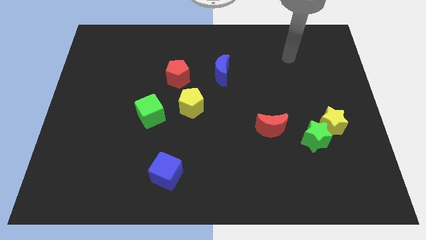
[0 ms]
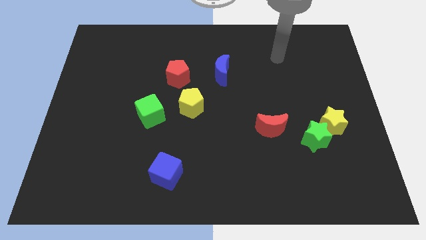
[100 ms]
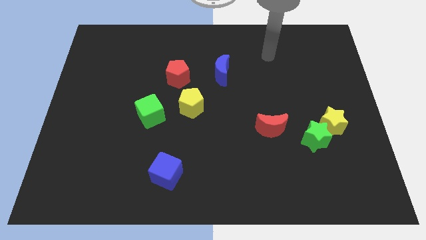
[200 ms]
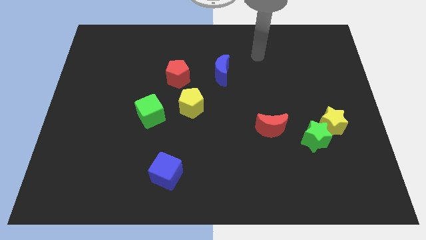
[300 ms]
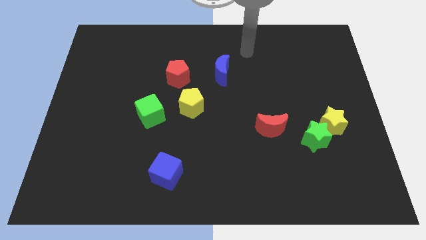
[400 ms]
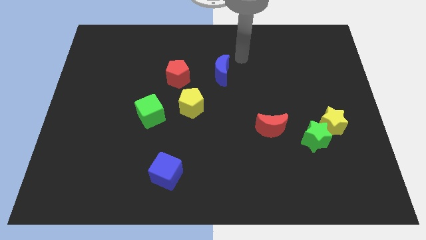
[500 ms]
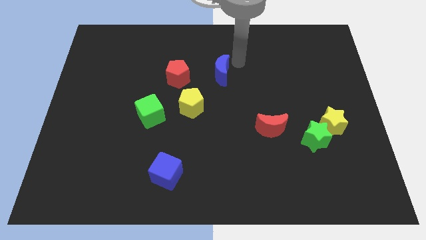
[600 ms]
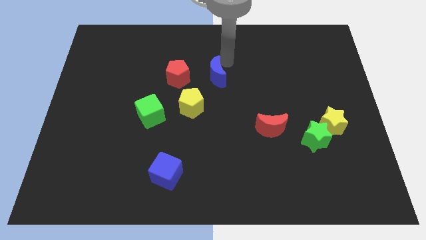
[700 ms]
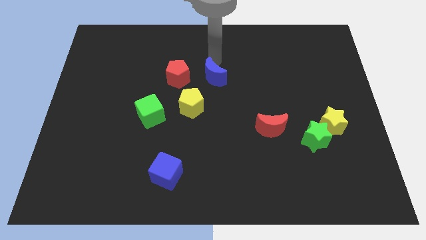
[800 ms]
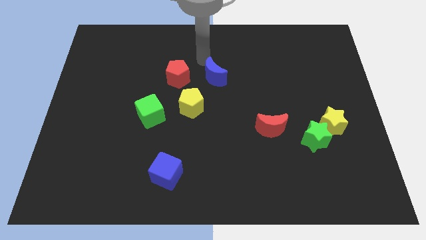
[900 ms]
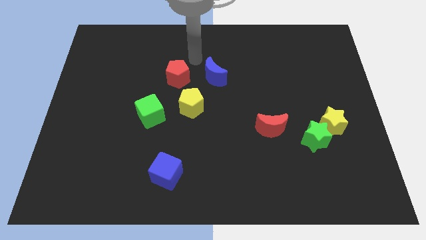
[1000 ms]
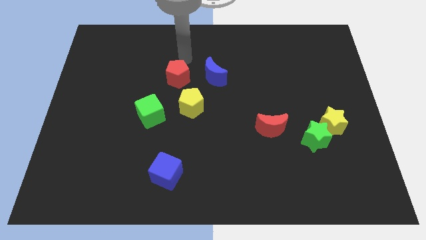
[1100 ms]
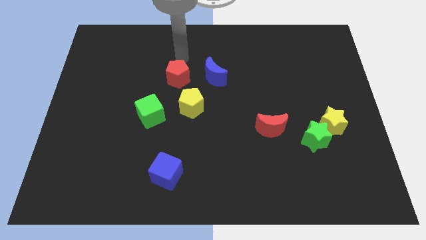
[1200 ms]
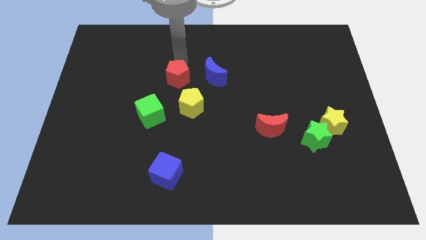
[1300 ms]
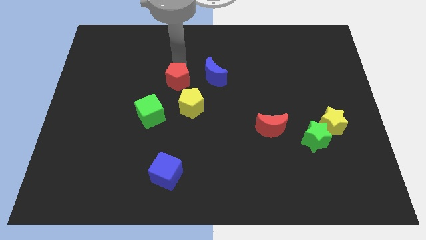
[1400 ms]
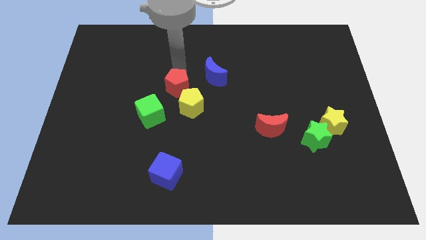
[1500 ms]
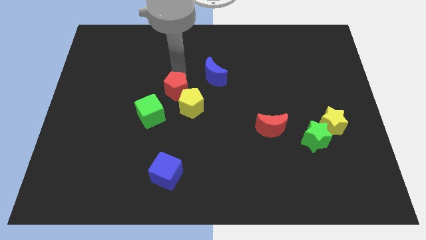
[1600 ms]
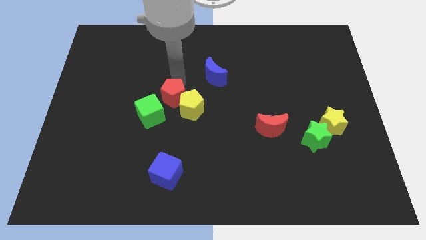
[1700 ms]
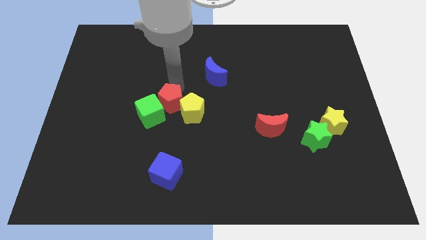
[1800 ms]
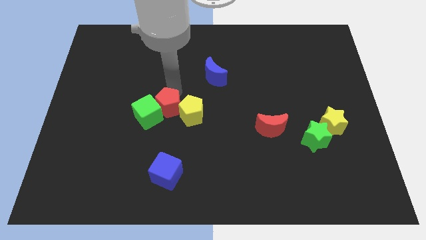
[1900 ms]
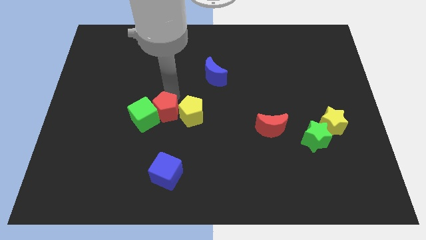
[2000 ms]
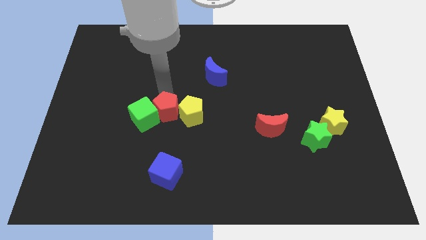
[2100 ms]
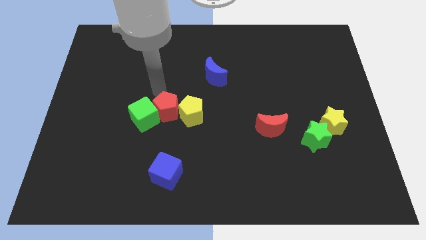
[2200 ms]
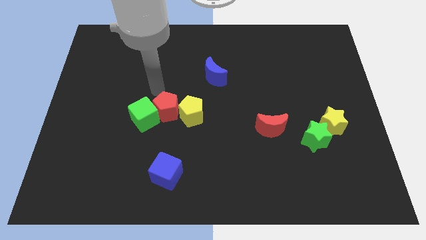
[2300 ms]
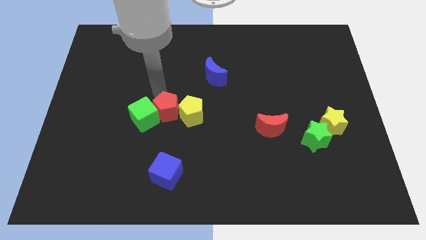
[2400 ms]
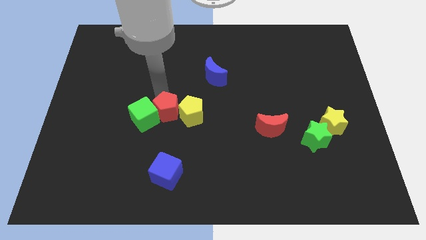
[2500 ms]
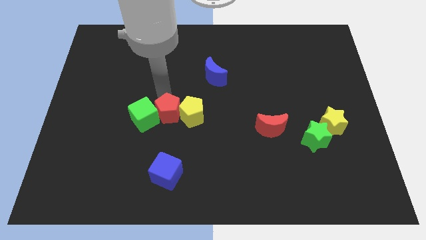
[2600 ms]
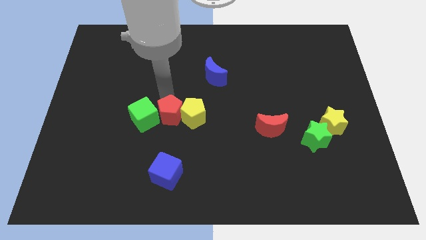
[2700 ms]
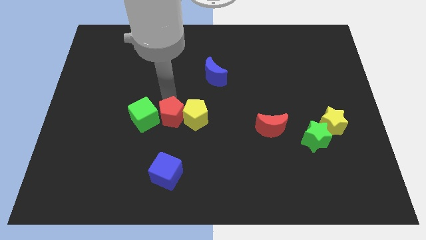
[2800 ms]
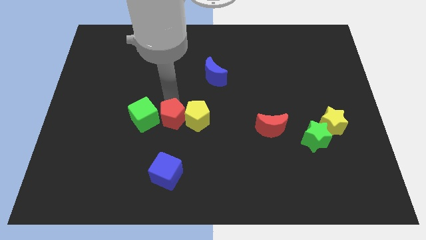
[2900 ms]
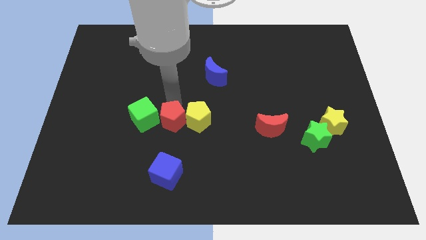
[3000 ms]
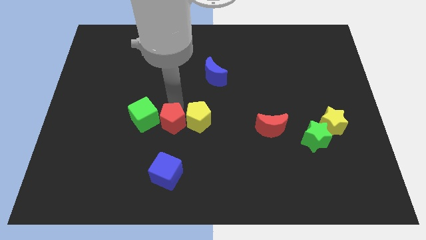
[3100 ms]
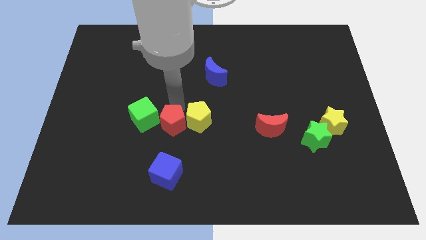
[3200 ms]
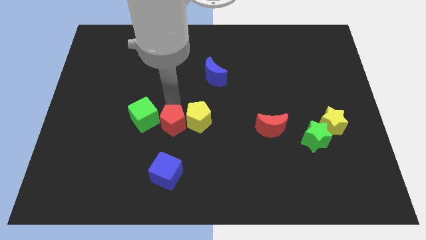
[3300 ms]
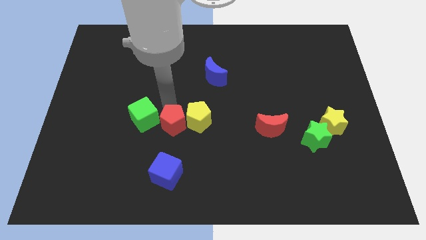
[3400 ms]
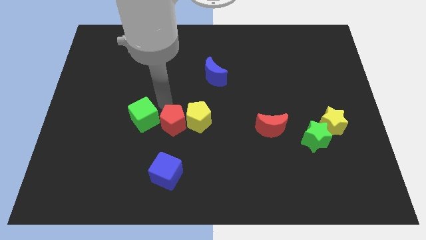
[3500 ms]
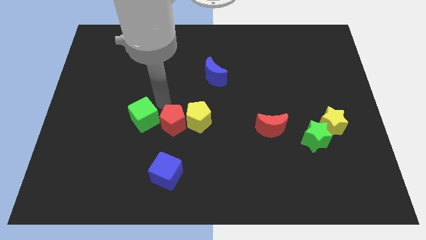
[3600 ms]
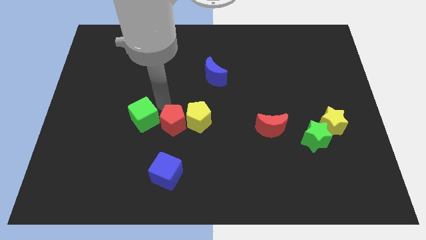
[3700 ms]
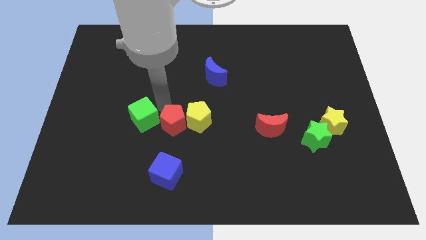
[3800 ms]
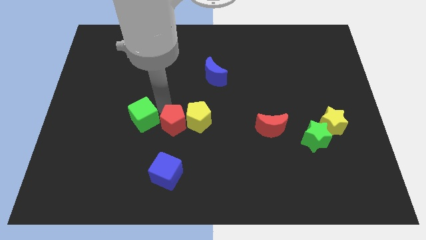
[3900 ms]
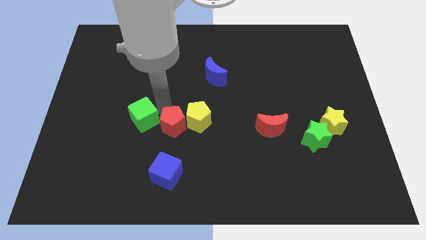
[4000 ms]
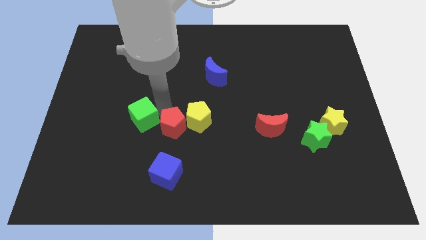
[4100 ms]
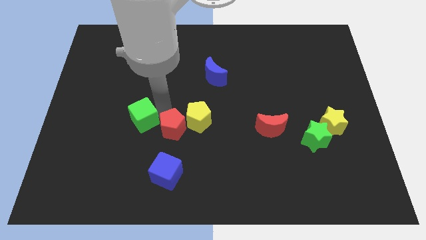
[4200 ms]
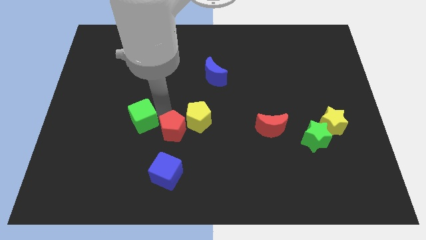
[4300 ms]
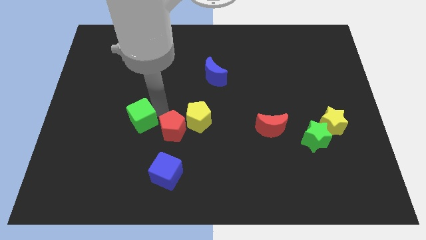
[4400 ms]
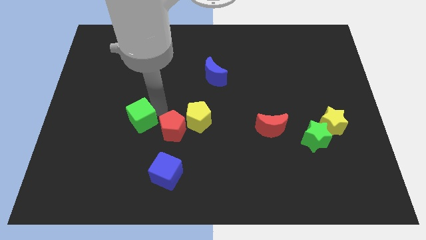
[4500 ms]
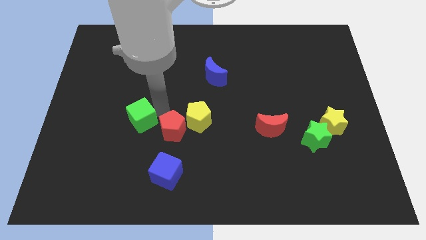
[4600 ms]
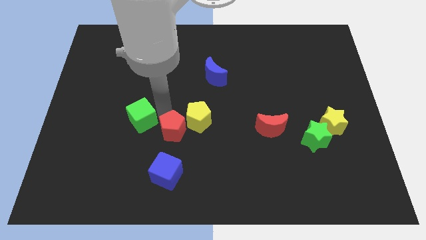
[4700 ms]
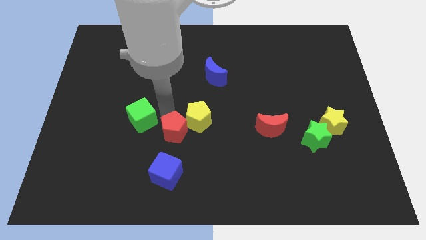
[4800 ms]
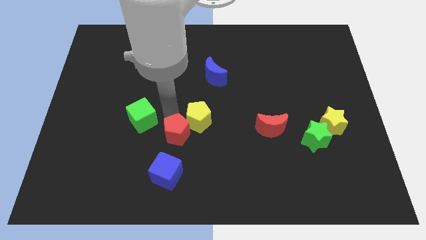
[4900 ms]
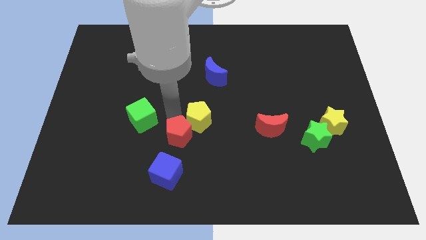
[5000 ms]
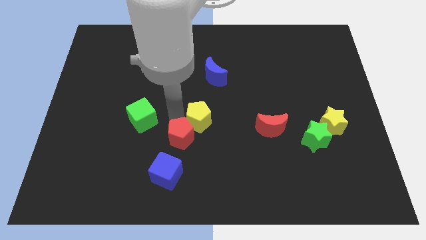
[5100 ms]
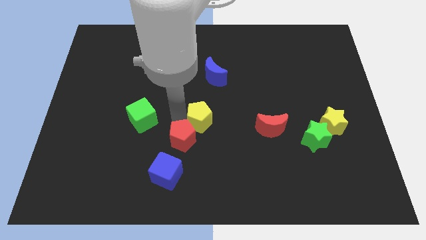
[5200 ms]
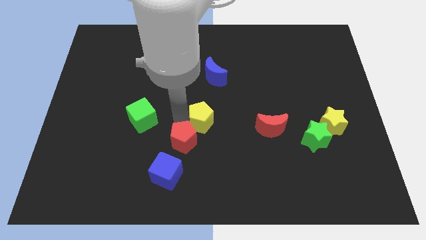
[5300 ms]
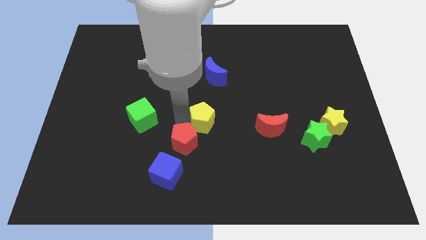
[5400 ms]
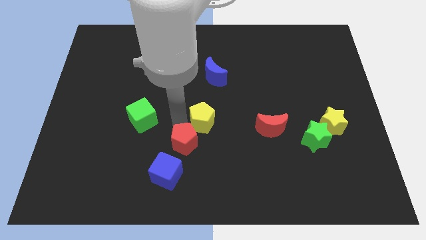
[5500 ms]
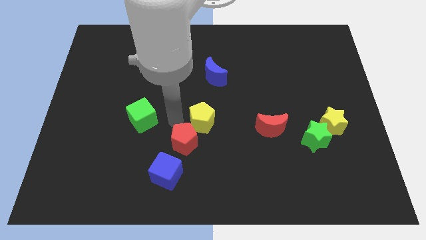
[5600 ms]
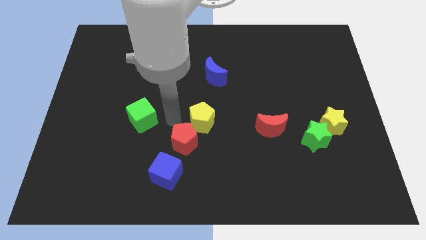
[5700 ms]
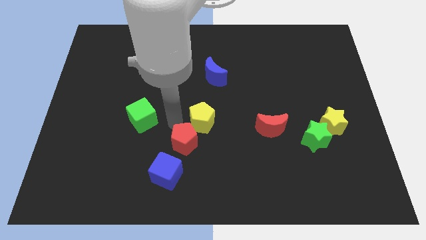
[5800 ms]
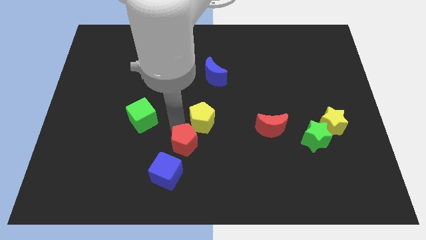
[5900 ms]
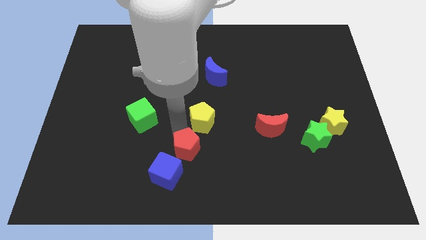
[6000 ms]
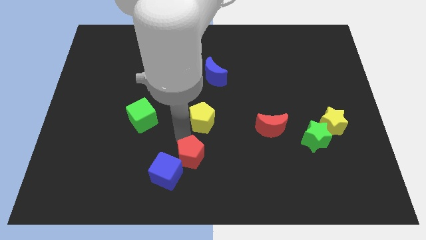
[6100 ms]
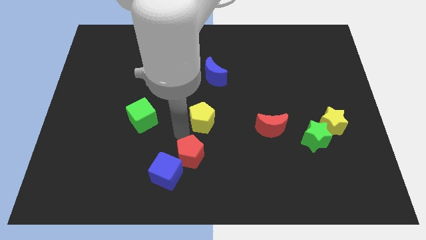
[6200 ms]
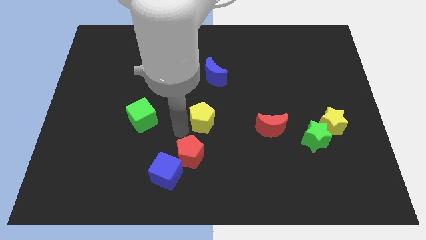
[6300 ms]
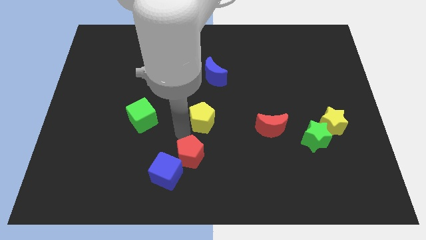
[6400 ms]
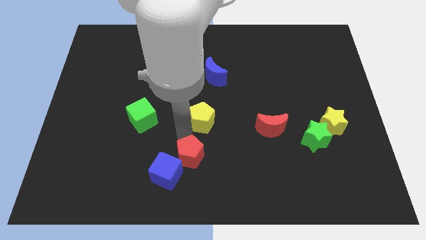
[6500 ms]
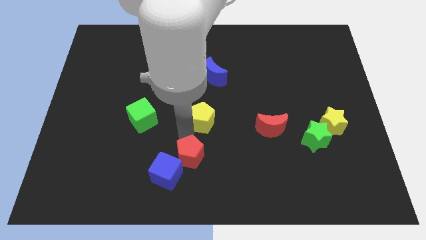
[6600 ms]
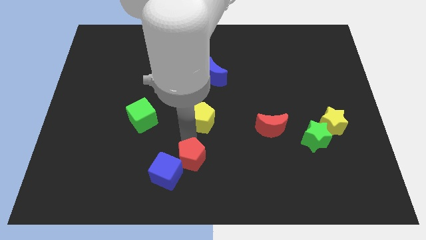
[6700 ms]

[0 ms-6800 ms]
slide the red pentagon to the bottom side
